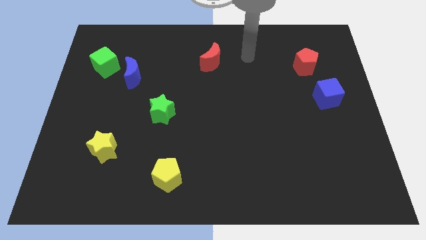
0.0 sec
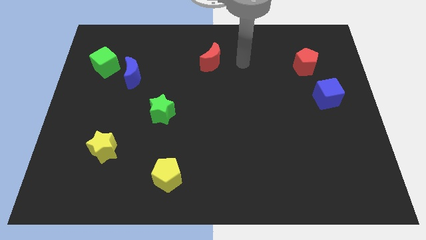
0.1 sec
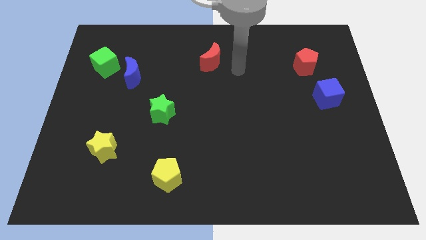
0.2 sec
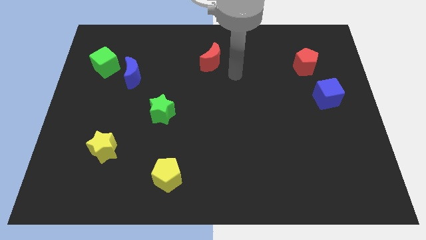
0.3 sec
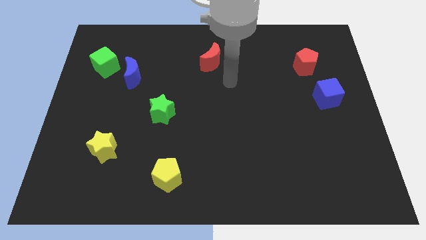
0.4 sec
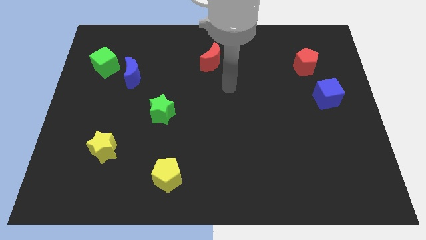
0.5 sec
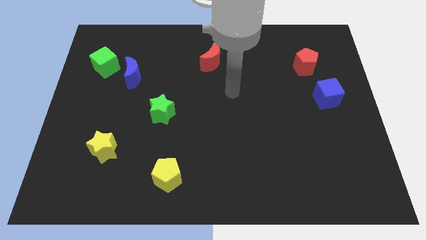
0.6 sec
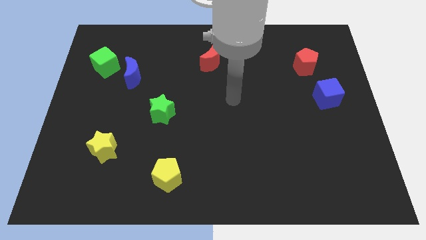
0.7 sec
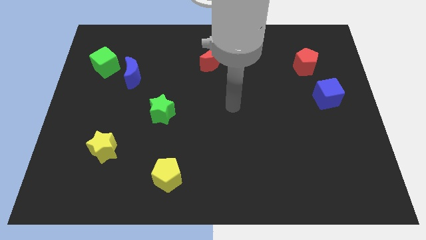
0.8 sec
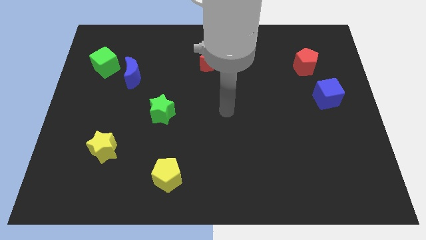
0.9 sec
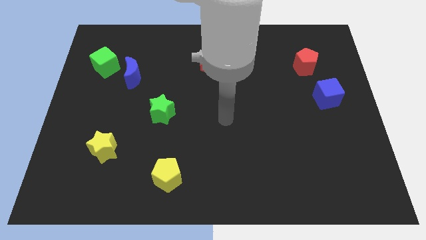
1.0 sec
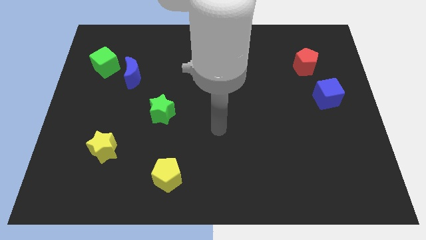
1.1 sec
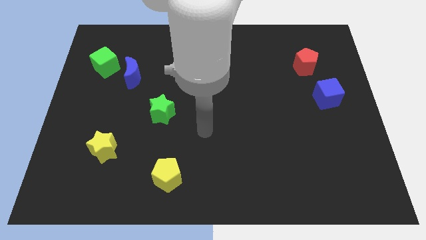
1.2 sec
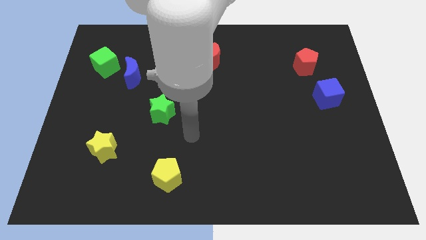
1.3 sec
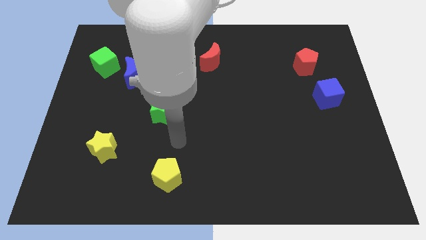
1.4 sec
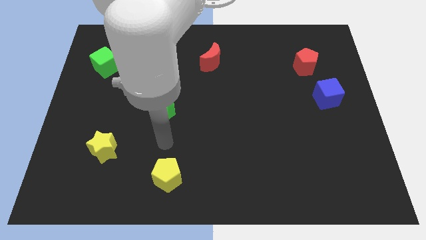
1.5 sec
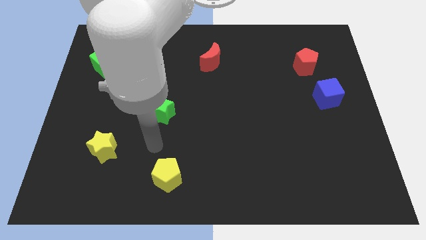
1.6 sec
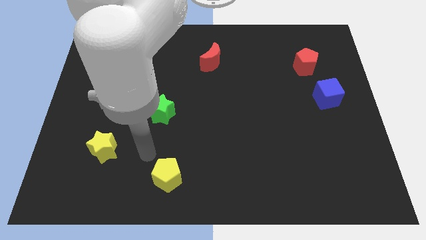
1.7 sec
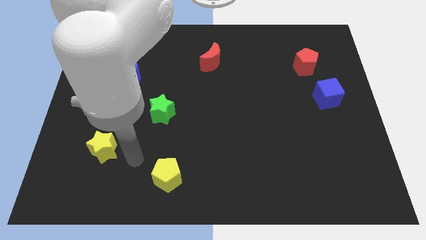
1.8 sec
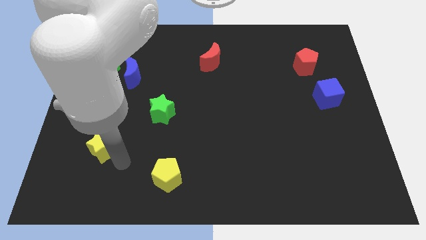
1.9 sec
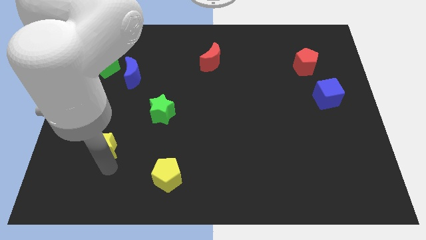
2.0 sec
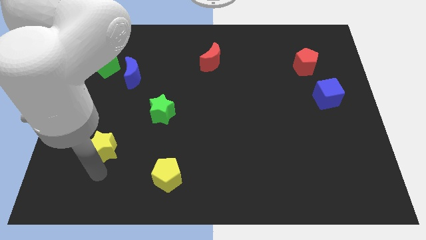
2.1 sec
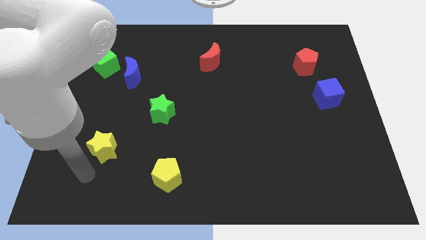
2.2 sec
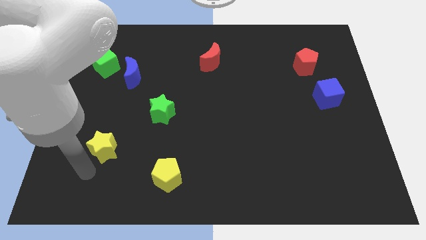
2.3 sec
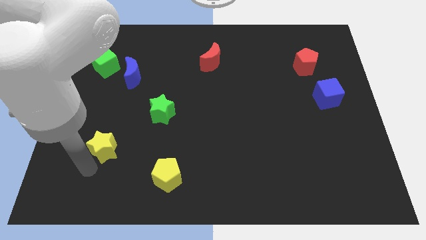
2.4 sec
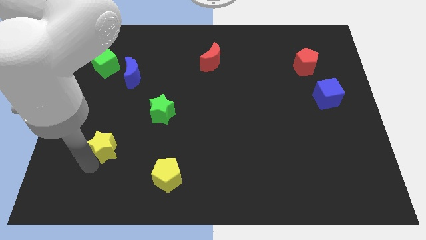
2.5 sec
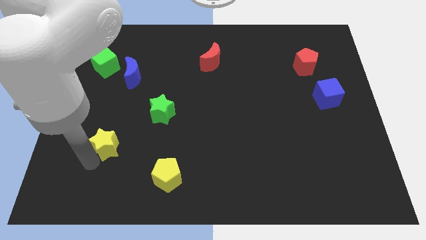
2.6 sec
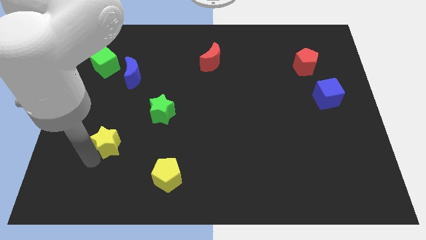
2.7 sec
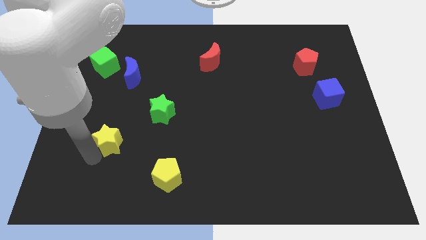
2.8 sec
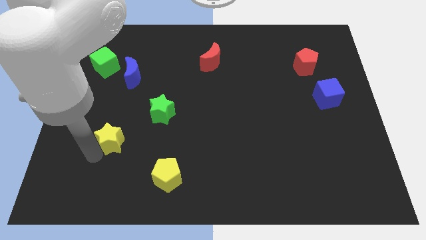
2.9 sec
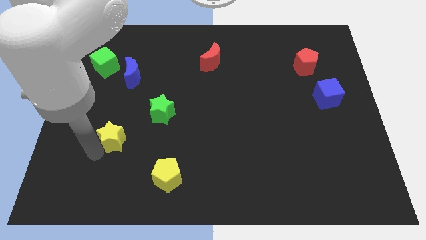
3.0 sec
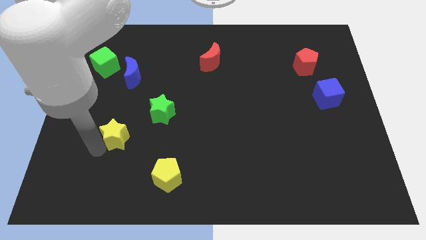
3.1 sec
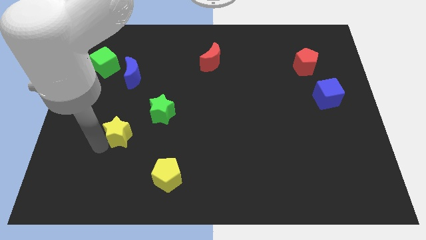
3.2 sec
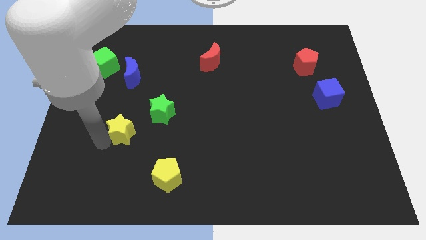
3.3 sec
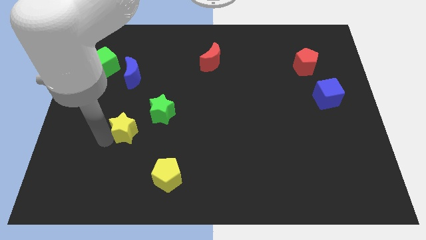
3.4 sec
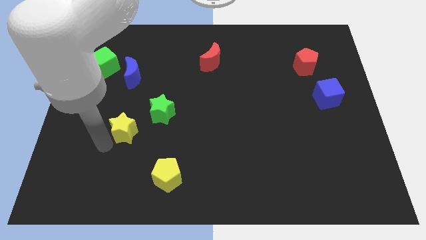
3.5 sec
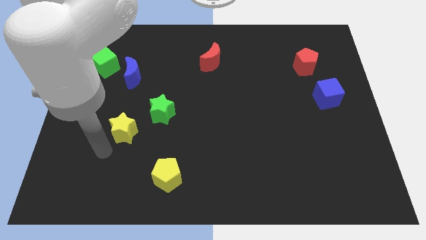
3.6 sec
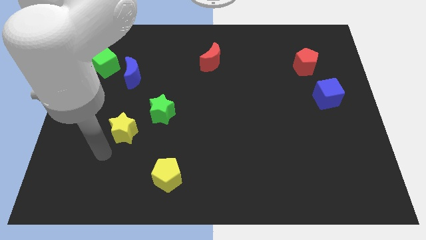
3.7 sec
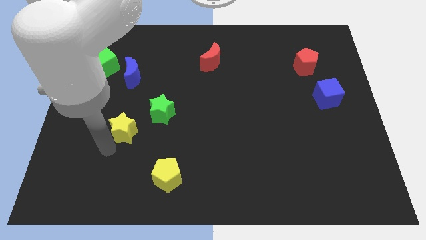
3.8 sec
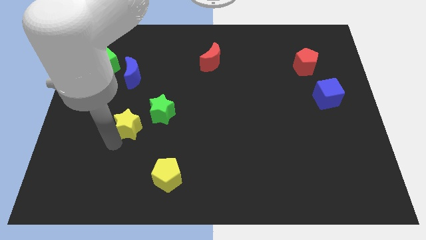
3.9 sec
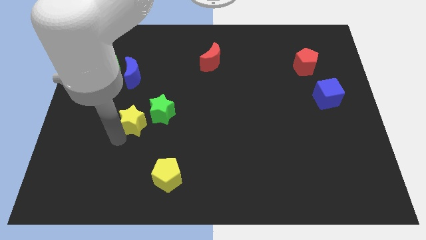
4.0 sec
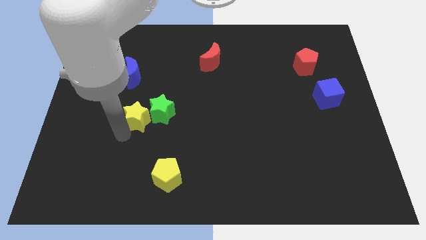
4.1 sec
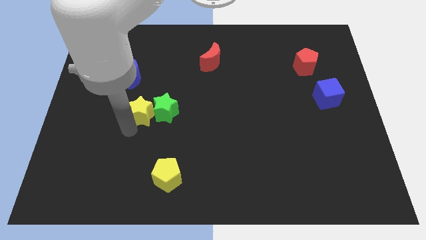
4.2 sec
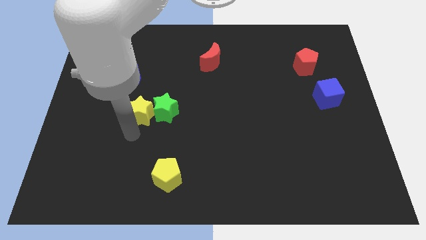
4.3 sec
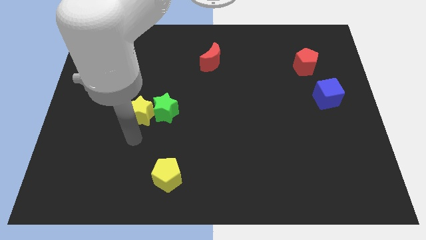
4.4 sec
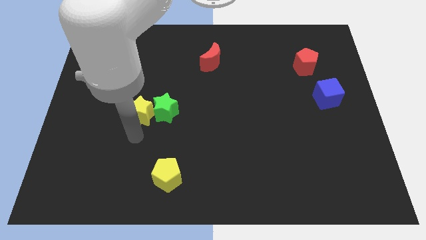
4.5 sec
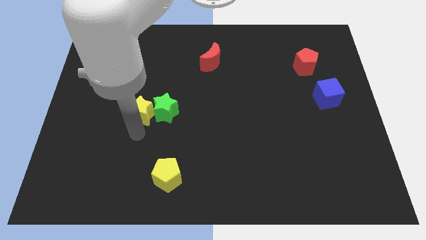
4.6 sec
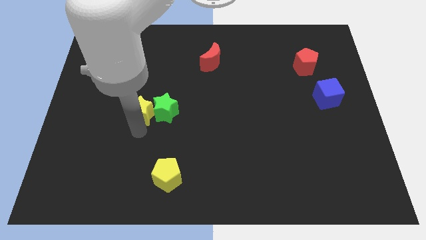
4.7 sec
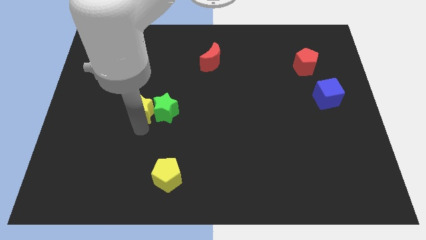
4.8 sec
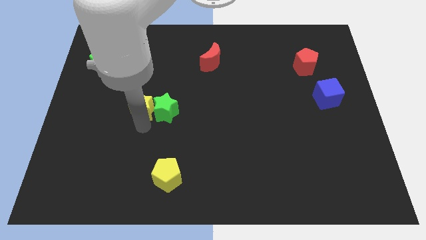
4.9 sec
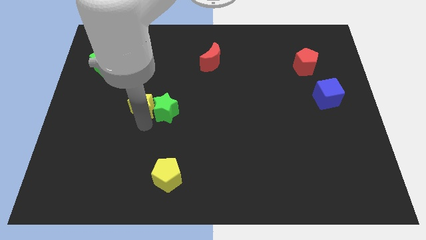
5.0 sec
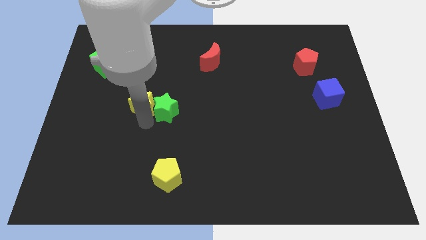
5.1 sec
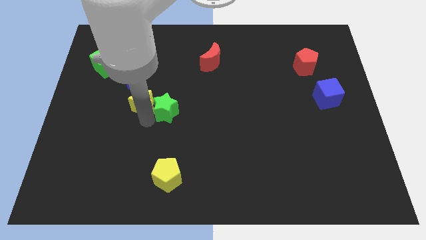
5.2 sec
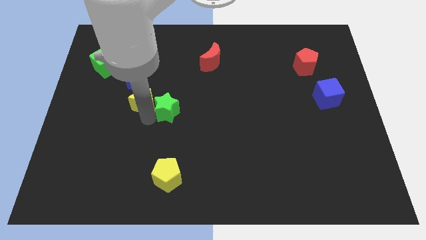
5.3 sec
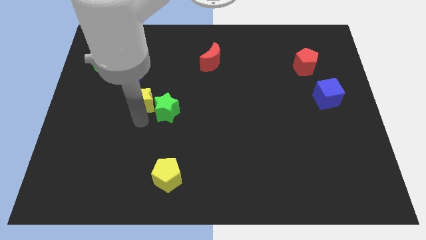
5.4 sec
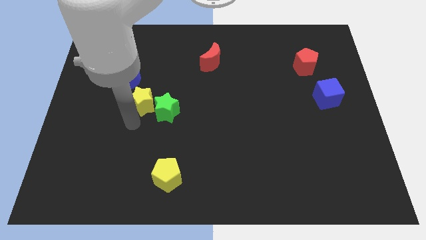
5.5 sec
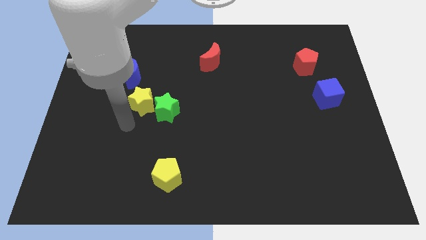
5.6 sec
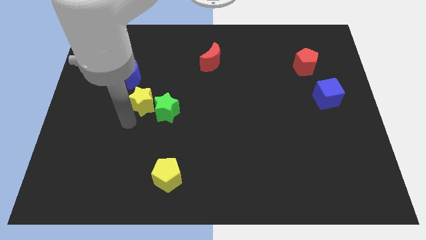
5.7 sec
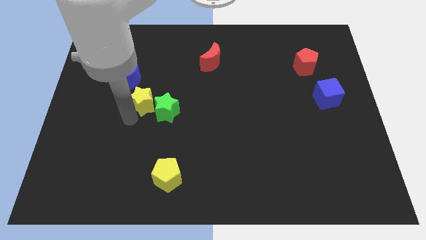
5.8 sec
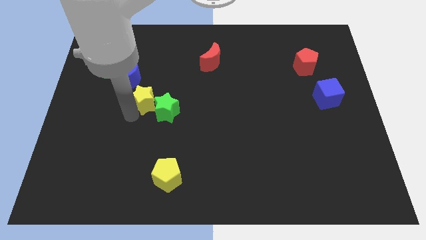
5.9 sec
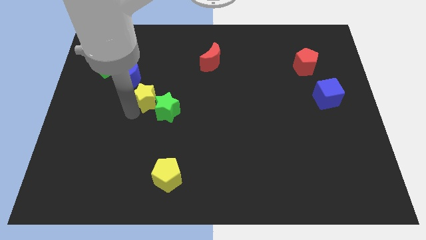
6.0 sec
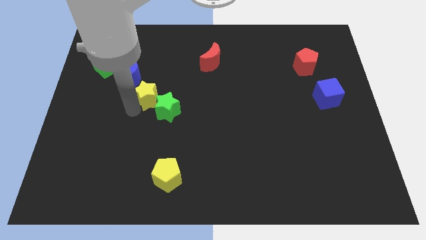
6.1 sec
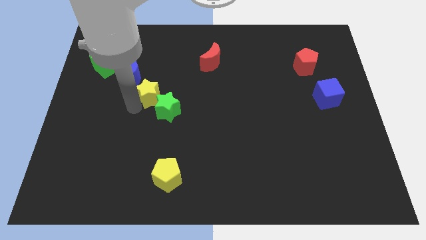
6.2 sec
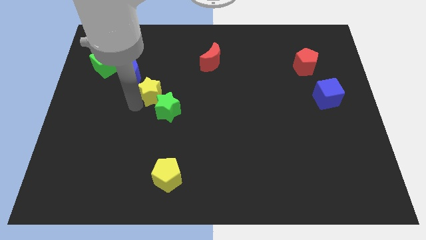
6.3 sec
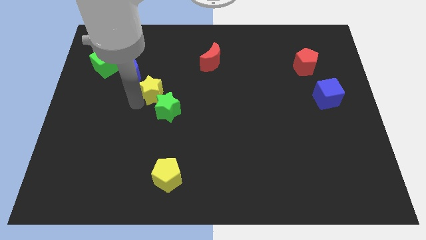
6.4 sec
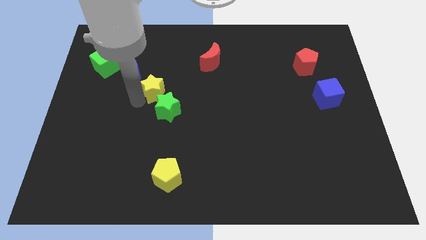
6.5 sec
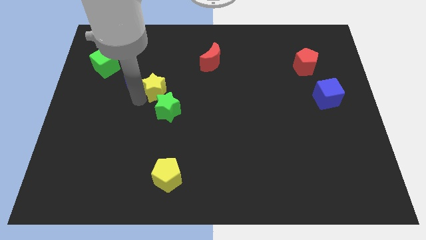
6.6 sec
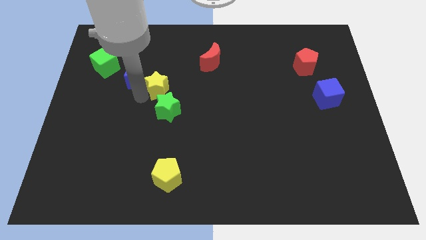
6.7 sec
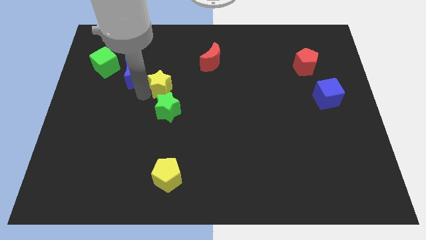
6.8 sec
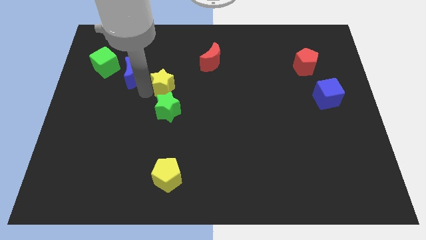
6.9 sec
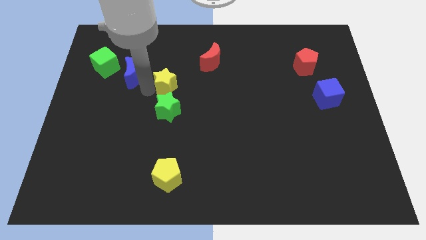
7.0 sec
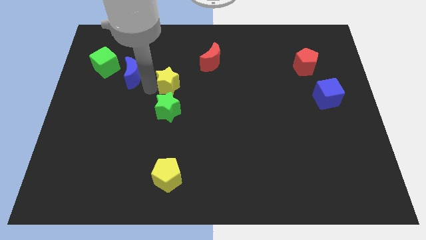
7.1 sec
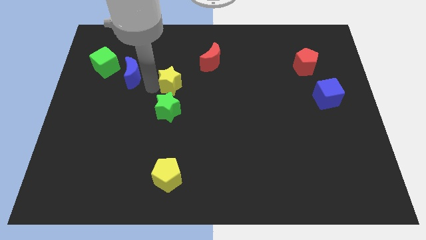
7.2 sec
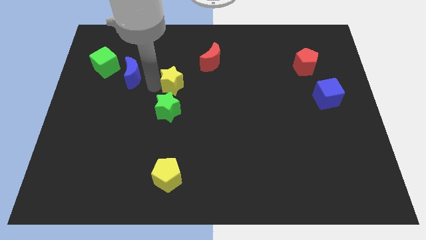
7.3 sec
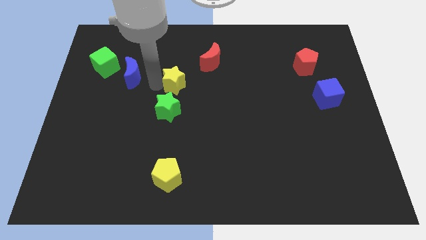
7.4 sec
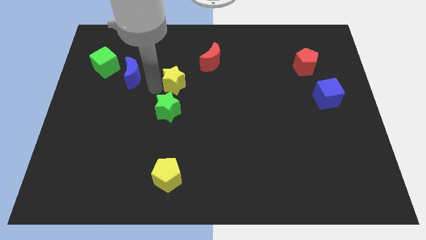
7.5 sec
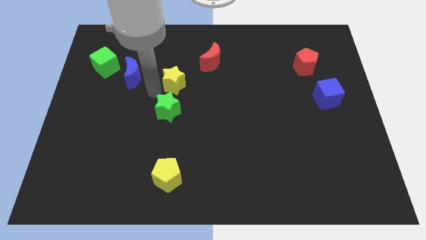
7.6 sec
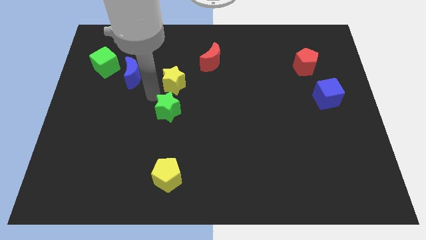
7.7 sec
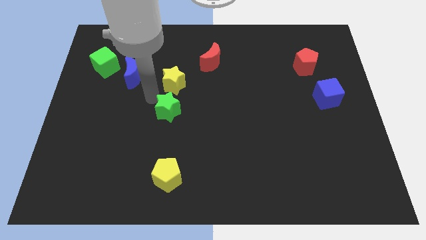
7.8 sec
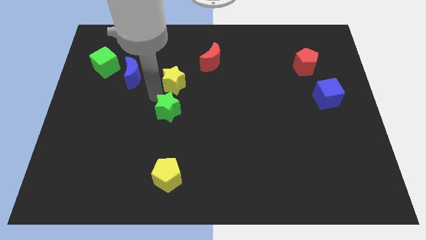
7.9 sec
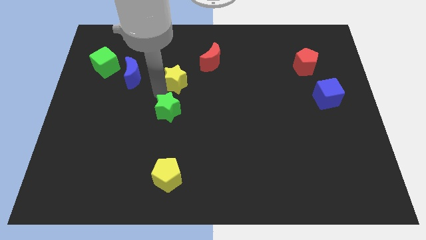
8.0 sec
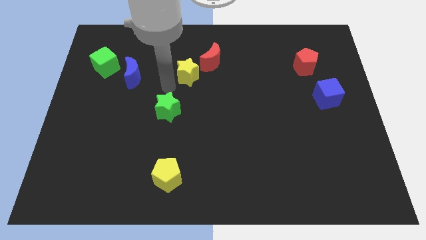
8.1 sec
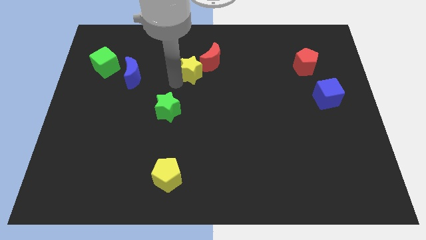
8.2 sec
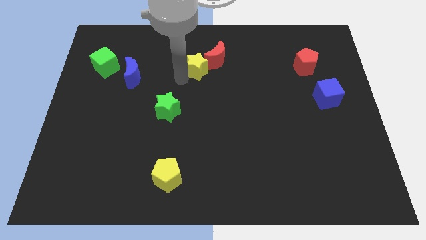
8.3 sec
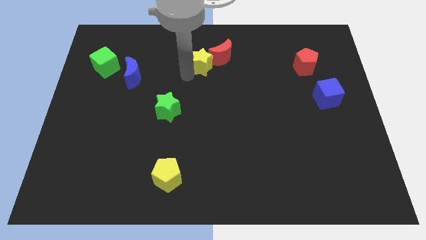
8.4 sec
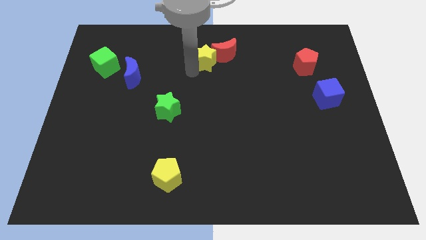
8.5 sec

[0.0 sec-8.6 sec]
put the yellow star to the red moon
